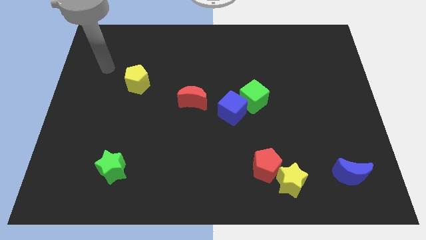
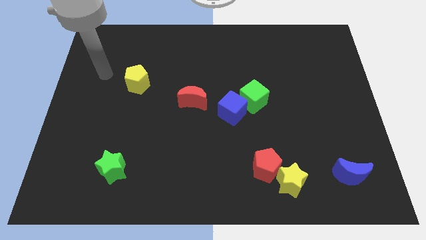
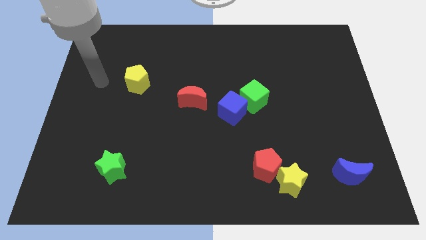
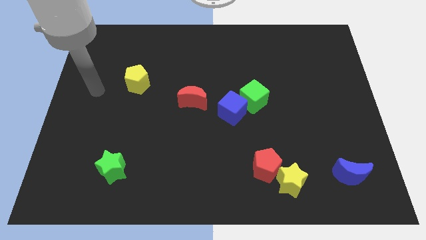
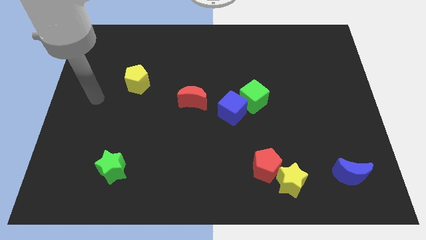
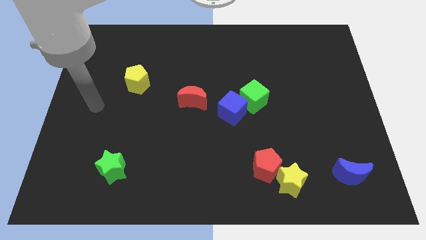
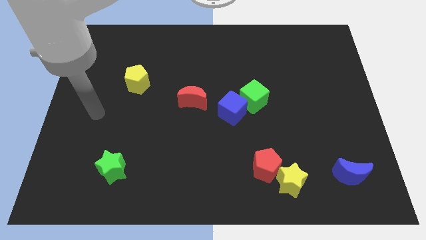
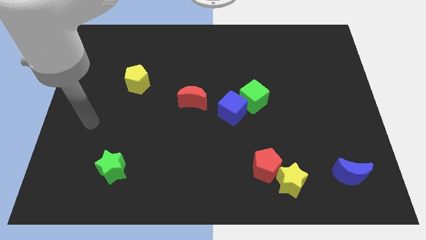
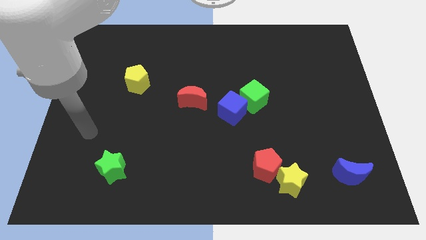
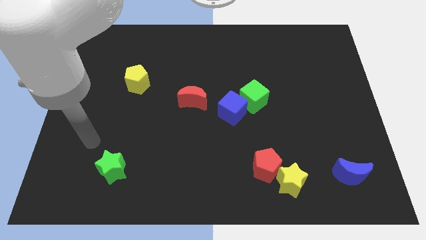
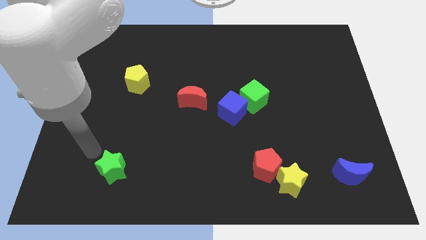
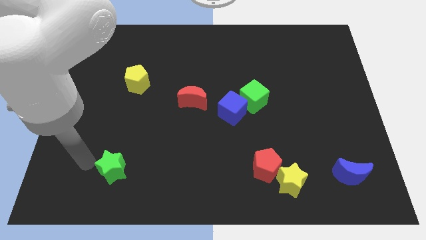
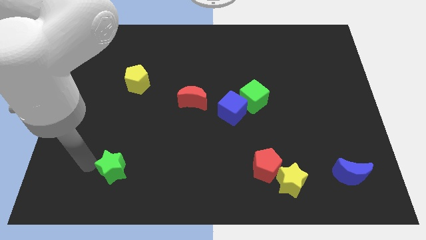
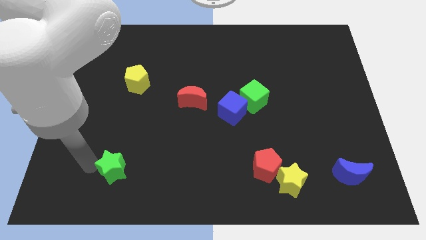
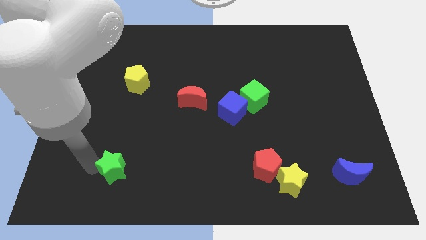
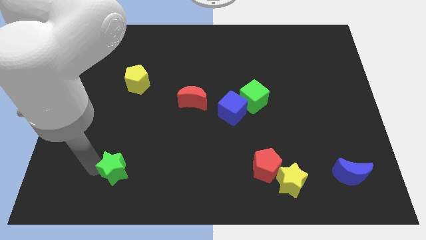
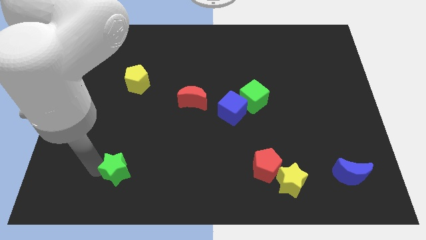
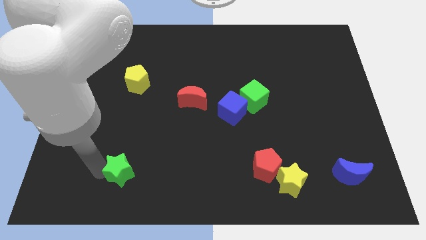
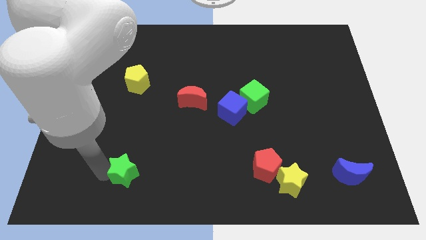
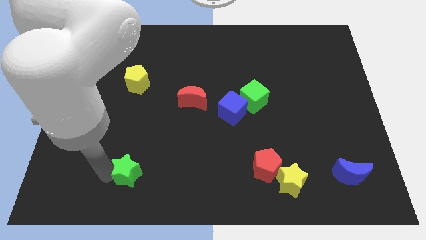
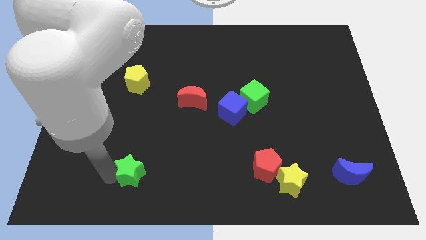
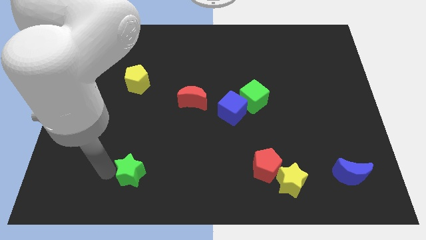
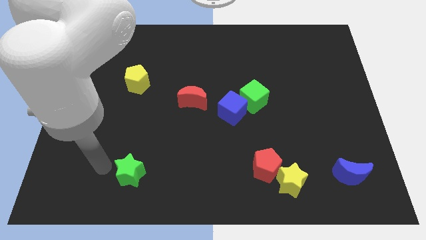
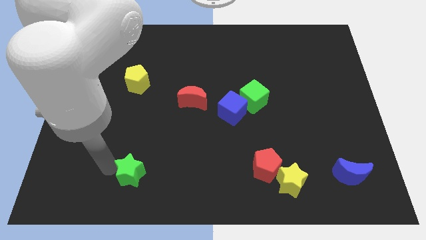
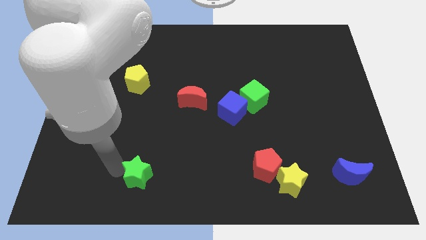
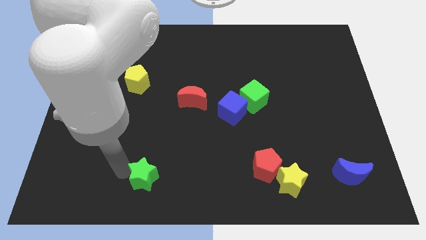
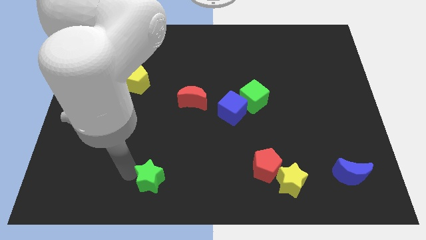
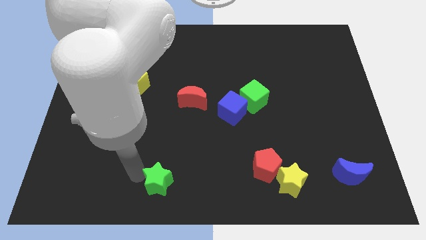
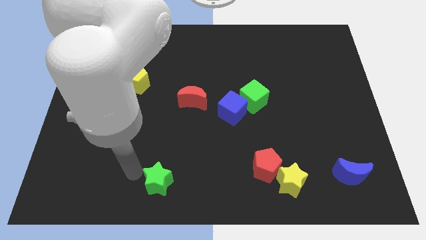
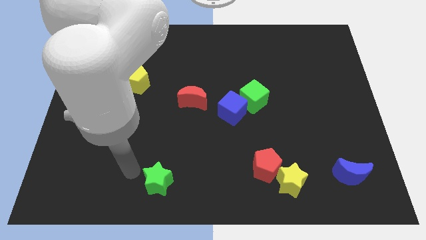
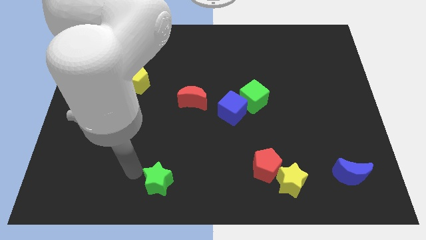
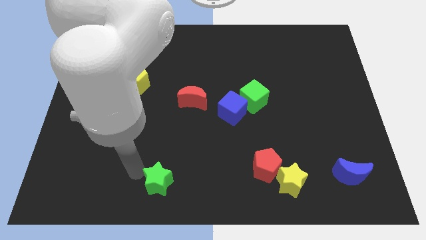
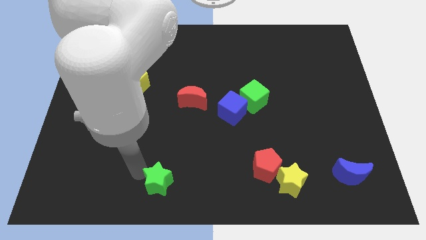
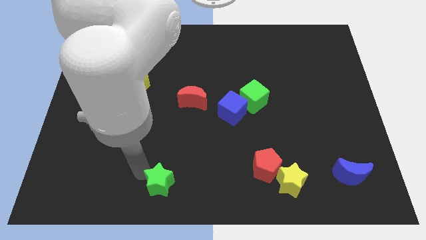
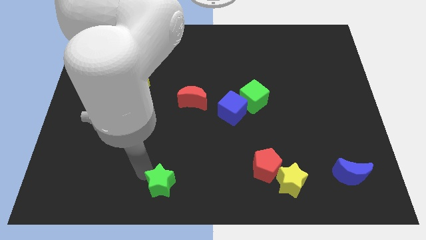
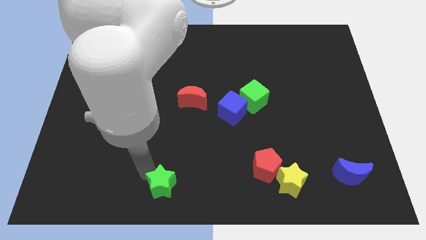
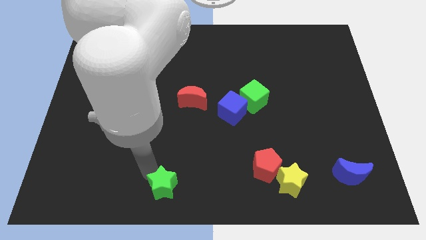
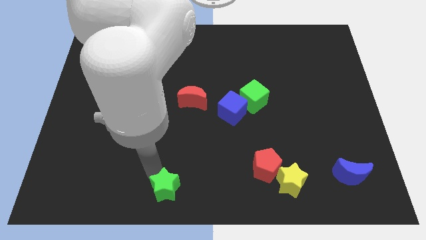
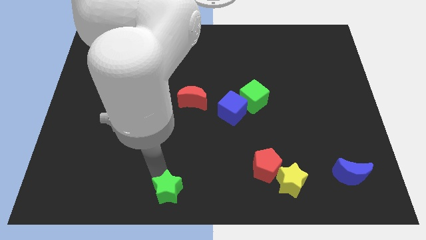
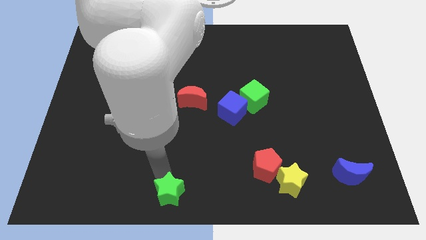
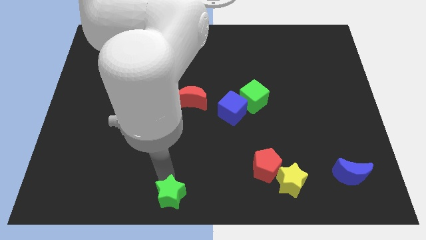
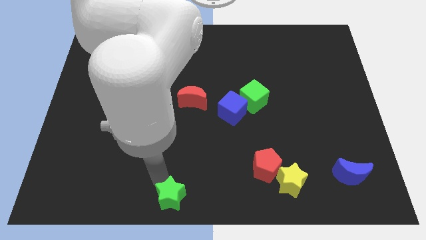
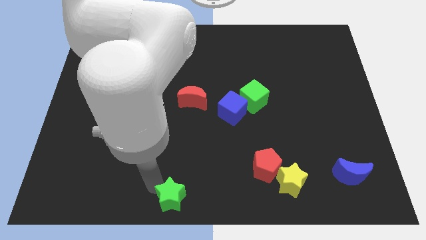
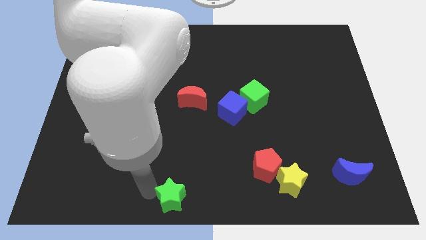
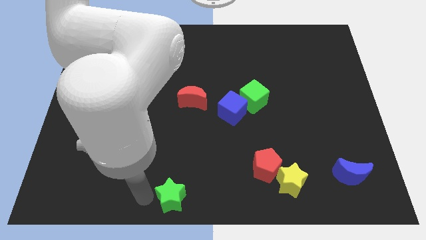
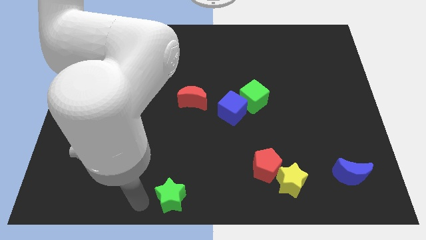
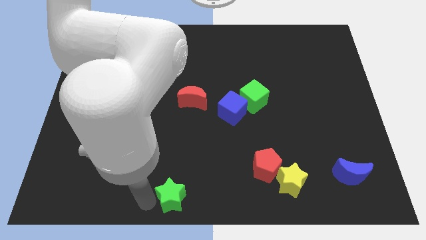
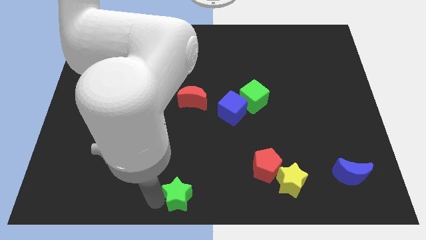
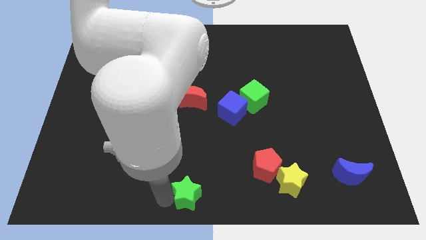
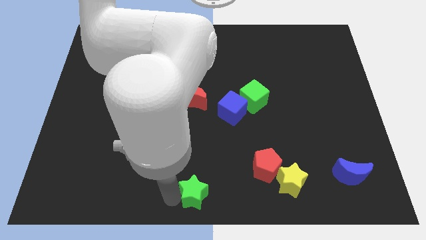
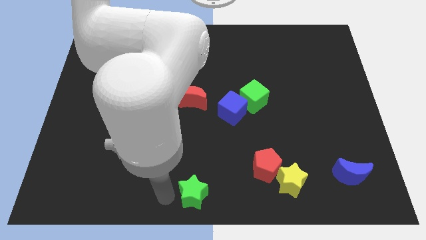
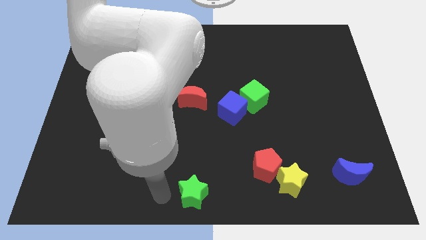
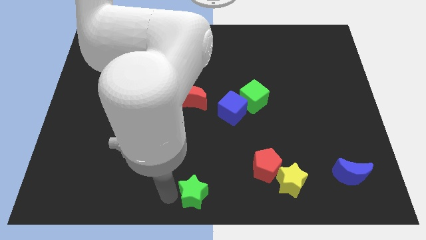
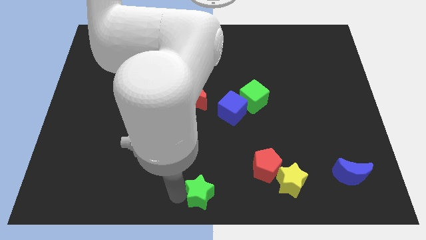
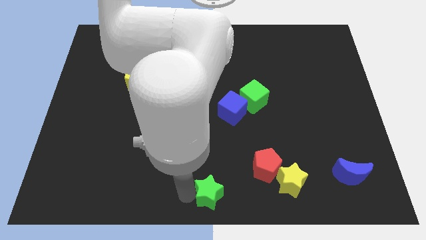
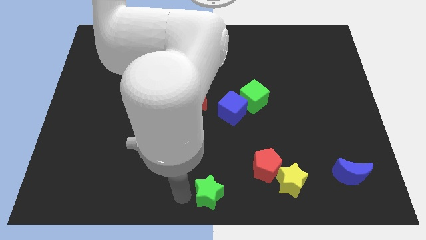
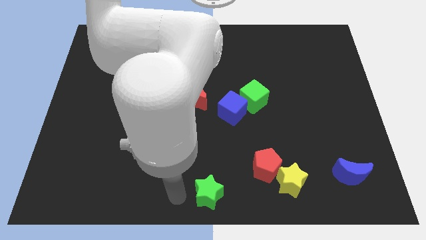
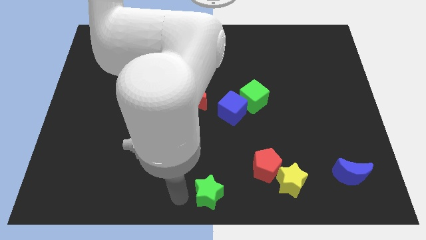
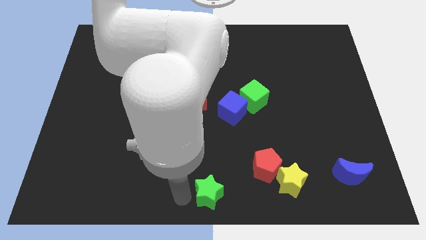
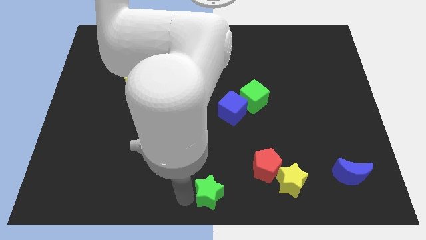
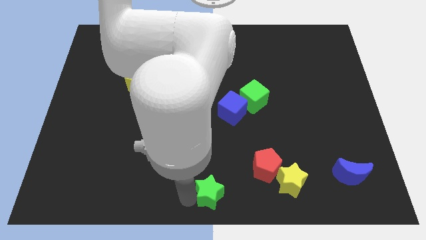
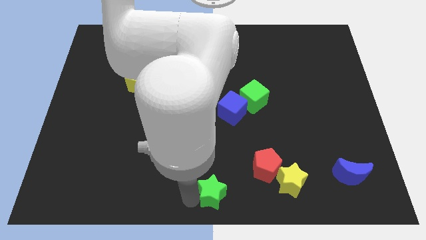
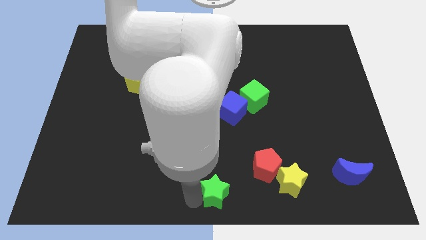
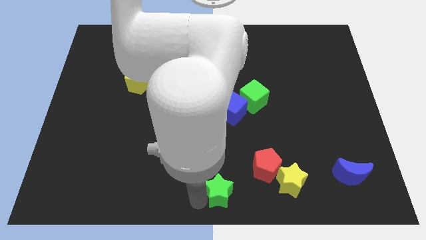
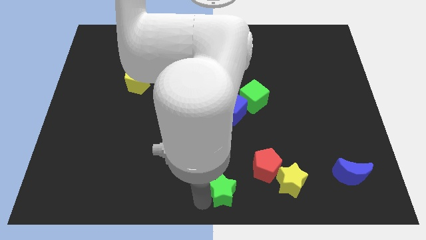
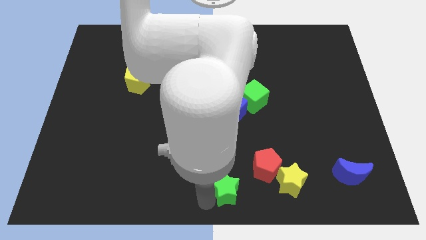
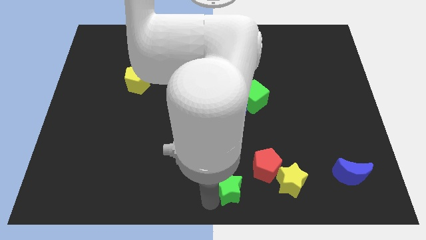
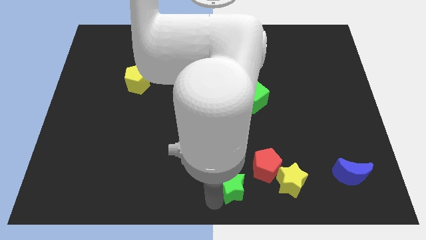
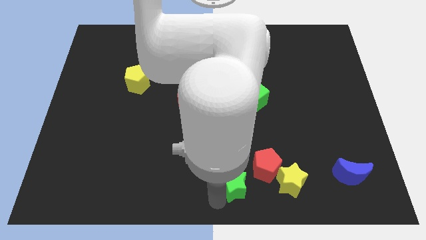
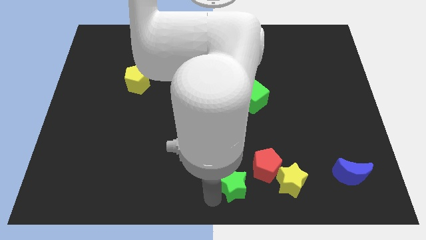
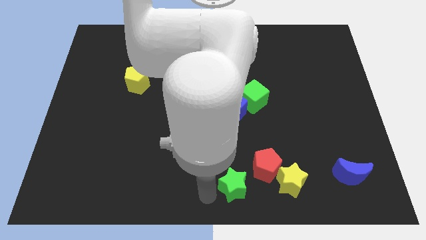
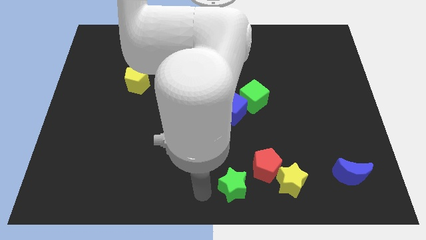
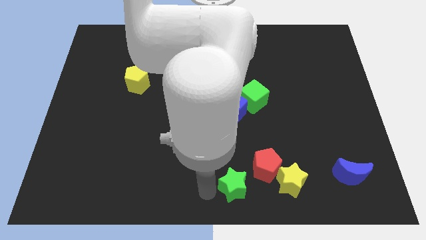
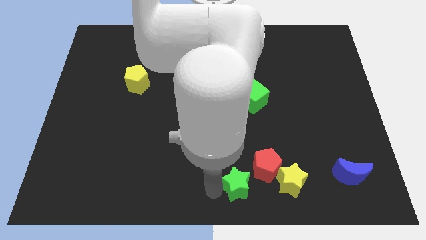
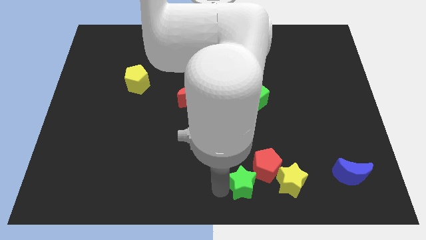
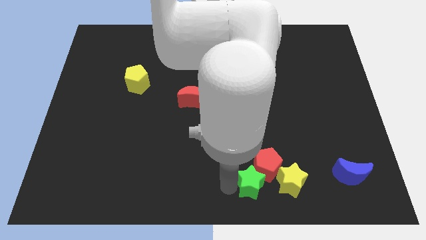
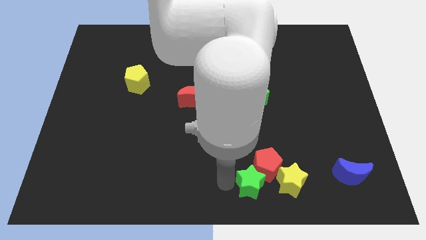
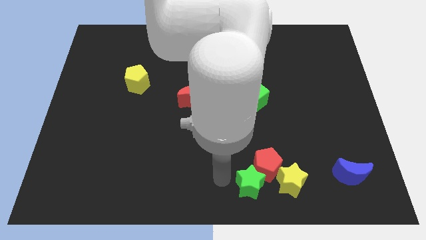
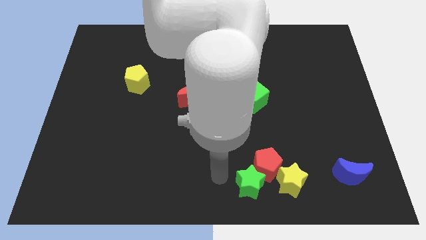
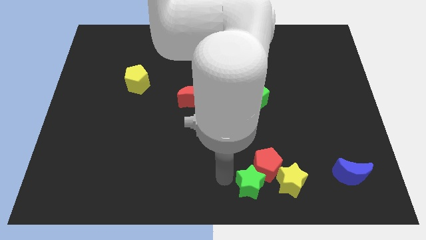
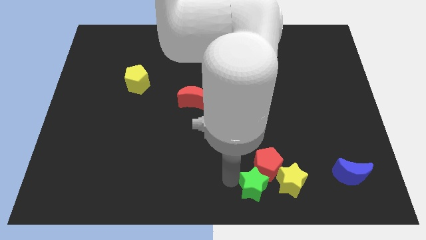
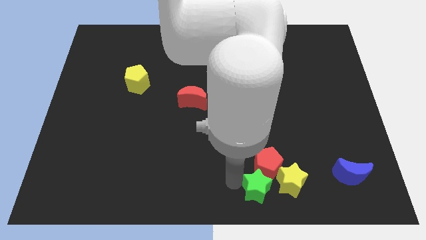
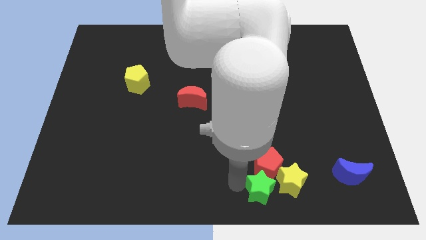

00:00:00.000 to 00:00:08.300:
push the green star next to the yellow star
